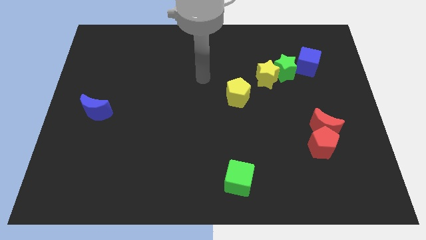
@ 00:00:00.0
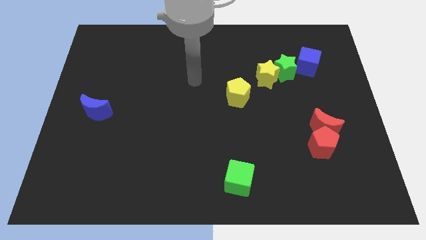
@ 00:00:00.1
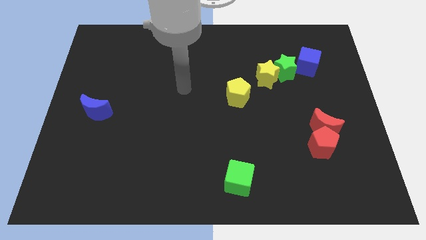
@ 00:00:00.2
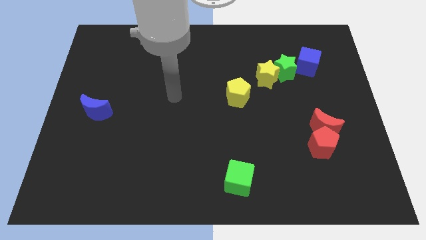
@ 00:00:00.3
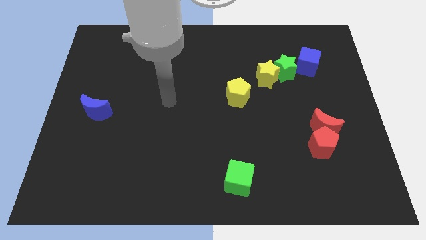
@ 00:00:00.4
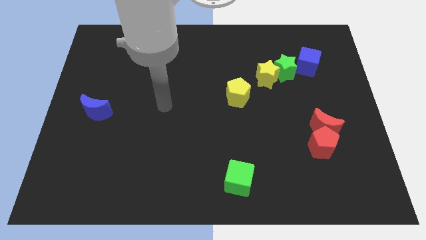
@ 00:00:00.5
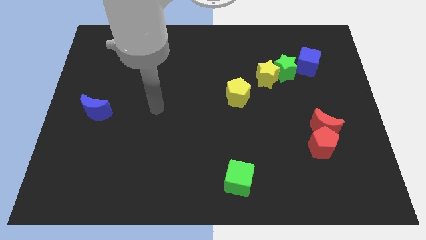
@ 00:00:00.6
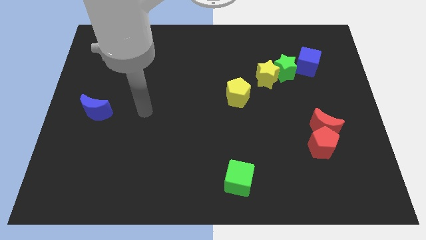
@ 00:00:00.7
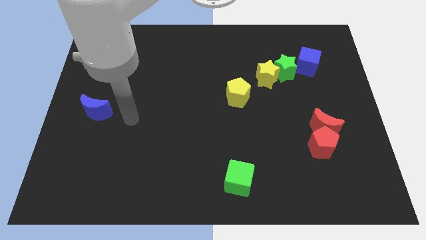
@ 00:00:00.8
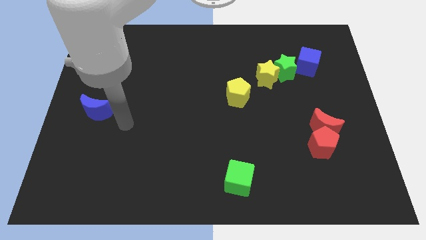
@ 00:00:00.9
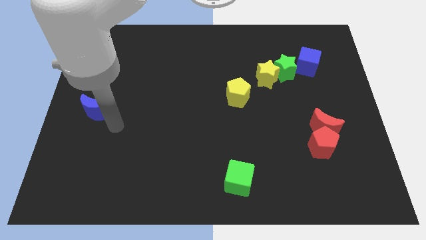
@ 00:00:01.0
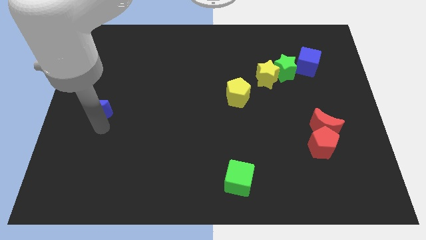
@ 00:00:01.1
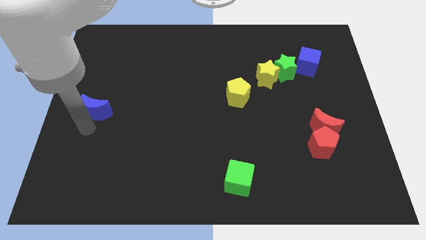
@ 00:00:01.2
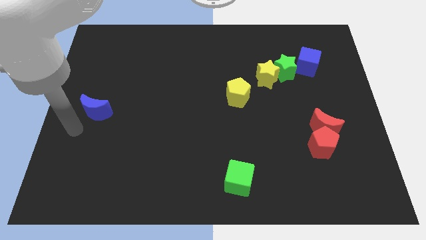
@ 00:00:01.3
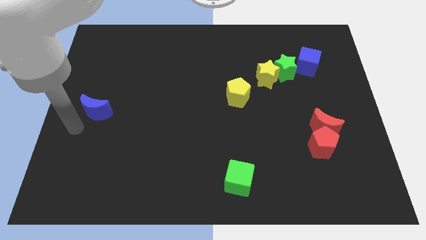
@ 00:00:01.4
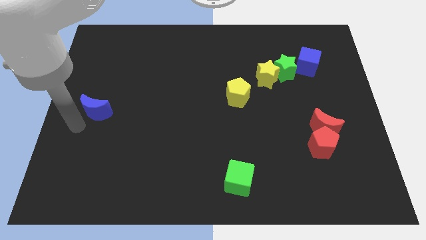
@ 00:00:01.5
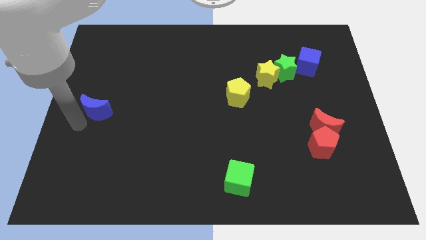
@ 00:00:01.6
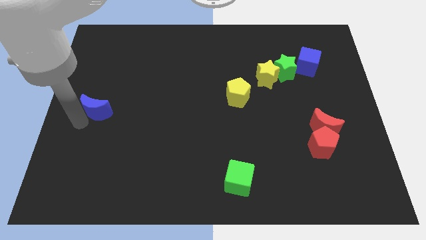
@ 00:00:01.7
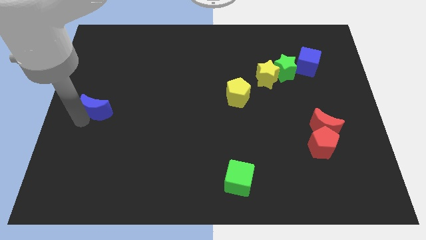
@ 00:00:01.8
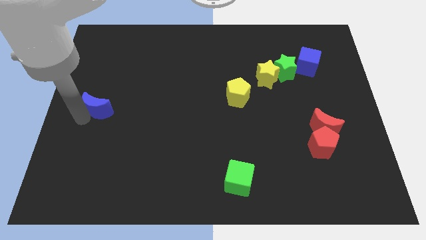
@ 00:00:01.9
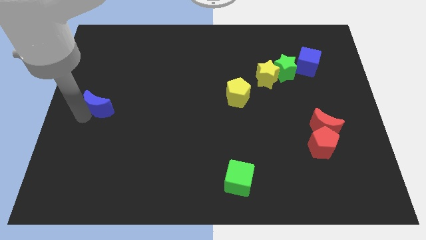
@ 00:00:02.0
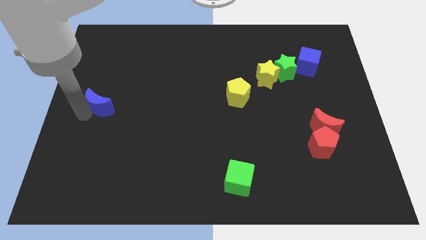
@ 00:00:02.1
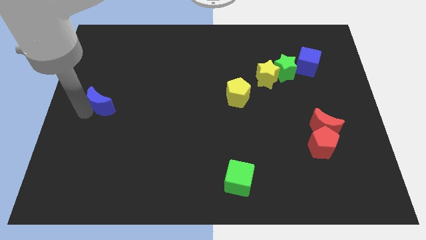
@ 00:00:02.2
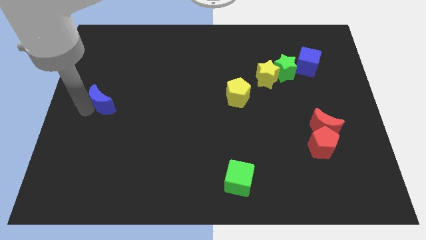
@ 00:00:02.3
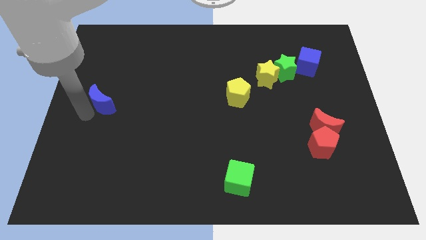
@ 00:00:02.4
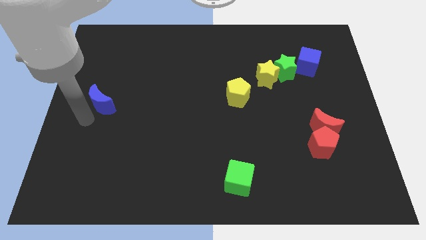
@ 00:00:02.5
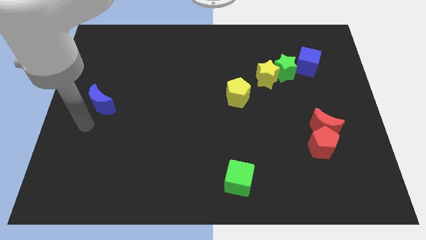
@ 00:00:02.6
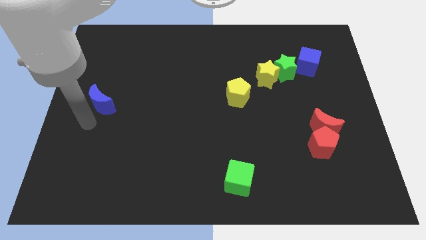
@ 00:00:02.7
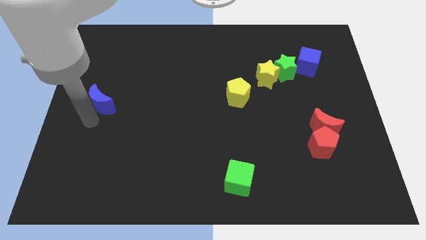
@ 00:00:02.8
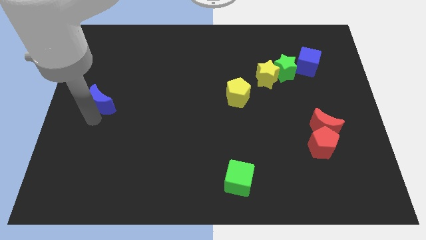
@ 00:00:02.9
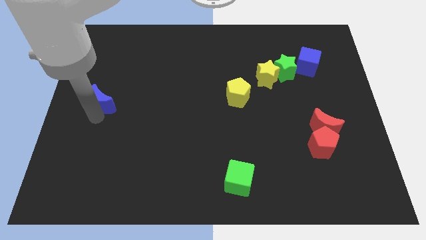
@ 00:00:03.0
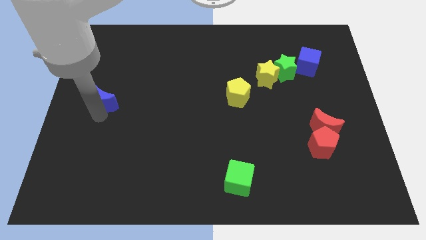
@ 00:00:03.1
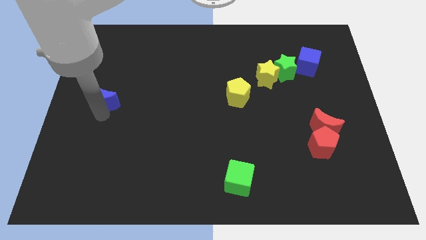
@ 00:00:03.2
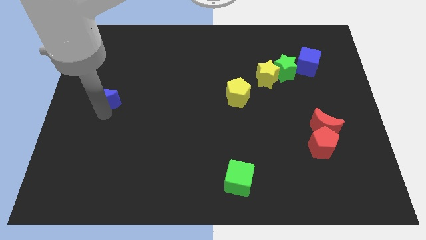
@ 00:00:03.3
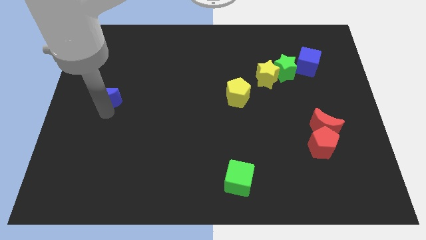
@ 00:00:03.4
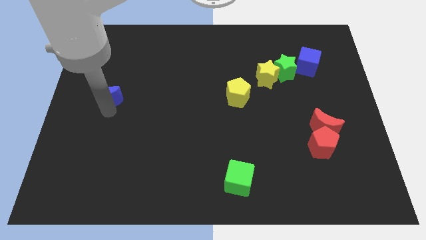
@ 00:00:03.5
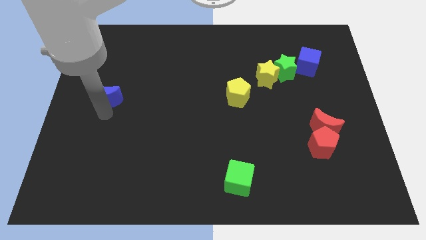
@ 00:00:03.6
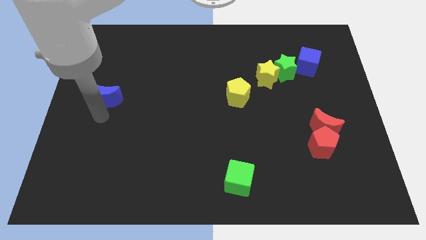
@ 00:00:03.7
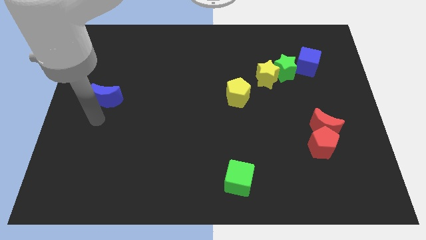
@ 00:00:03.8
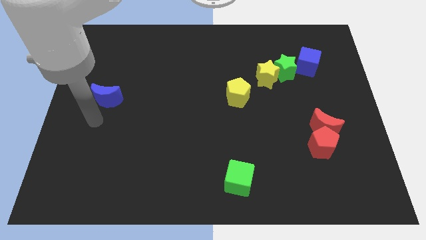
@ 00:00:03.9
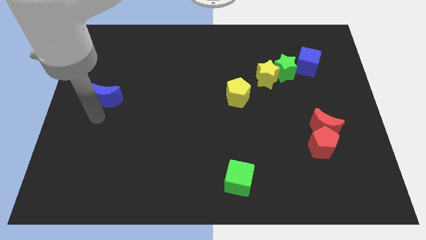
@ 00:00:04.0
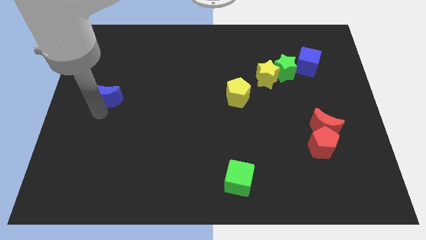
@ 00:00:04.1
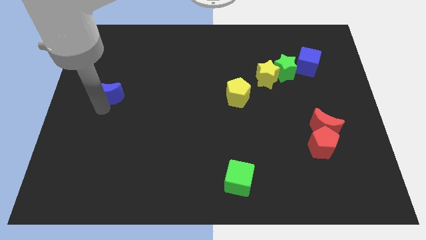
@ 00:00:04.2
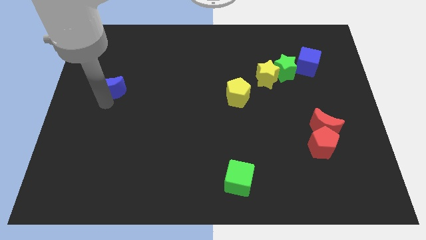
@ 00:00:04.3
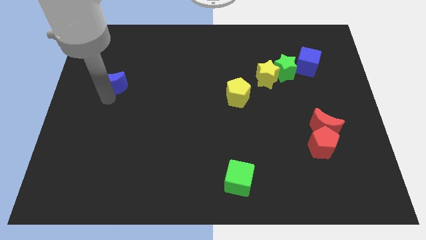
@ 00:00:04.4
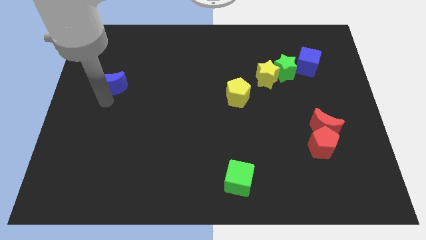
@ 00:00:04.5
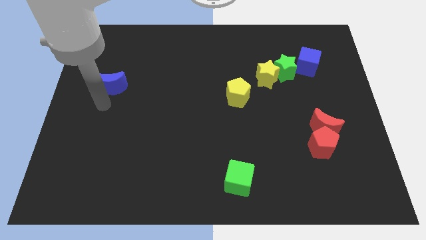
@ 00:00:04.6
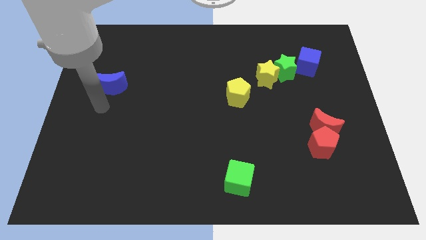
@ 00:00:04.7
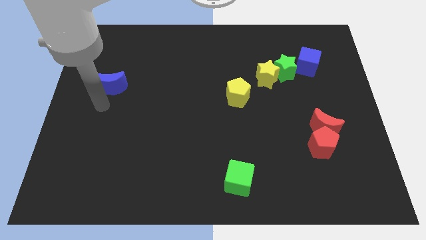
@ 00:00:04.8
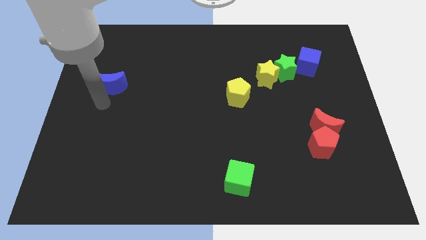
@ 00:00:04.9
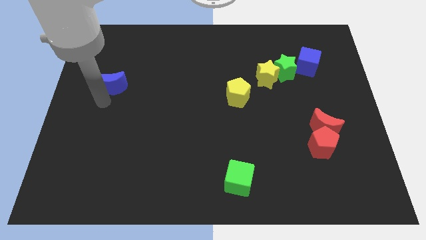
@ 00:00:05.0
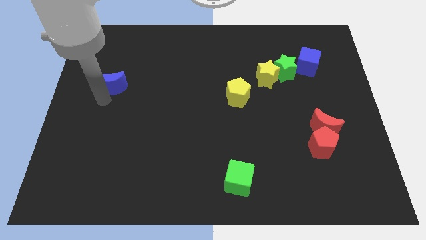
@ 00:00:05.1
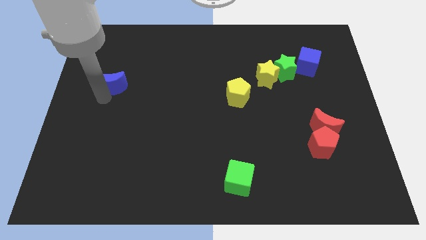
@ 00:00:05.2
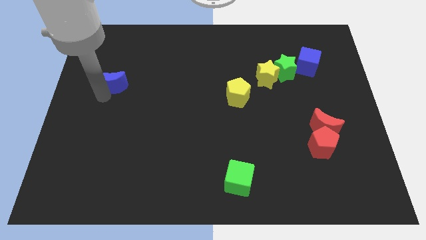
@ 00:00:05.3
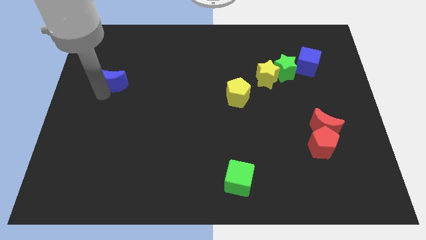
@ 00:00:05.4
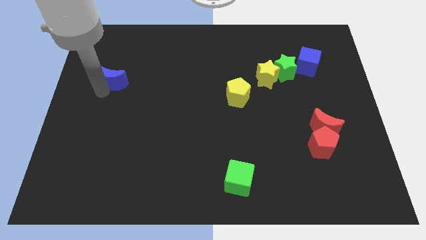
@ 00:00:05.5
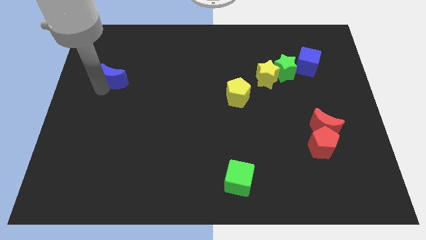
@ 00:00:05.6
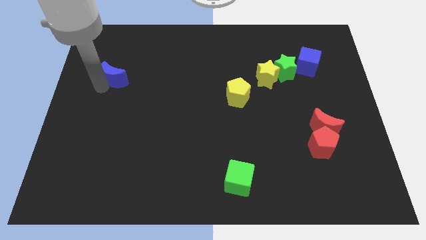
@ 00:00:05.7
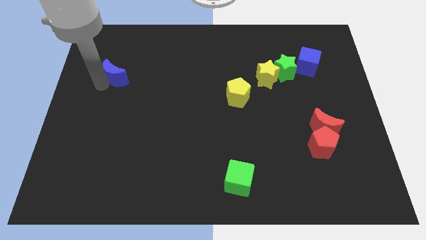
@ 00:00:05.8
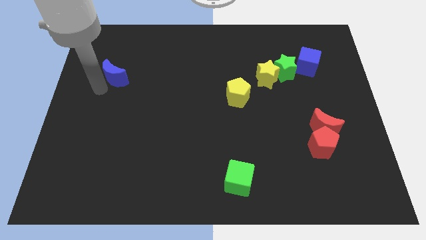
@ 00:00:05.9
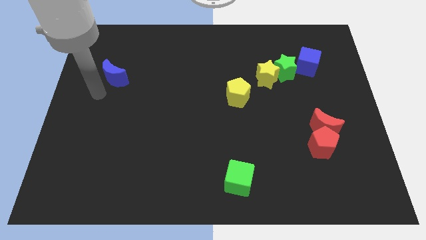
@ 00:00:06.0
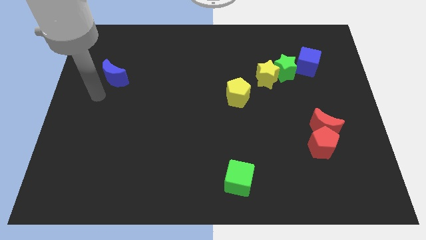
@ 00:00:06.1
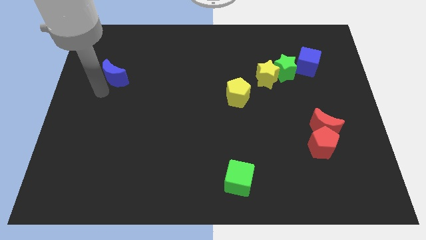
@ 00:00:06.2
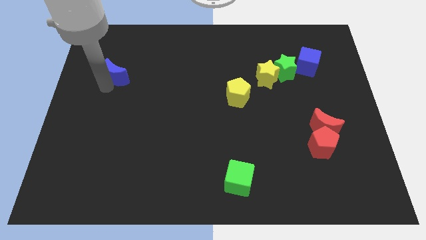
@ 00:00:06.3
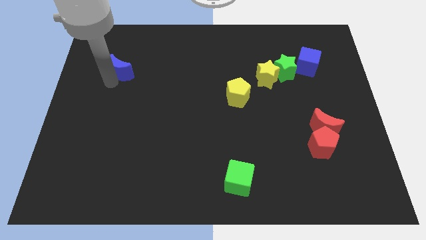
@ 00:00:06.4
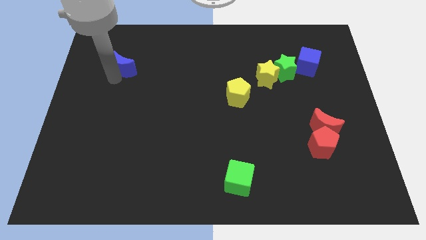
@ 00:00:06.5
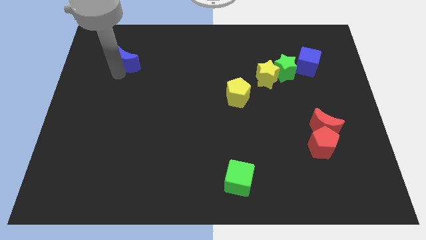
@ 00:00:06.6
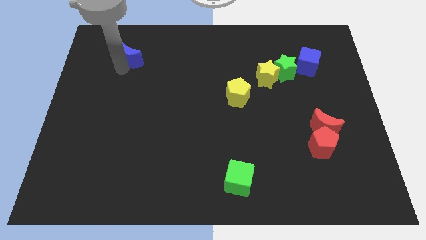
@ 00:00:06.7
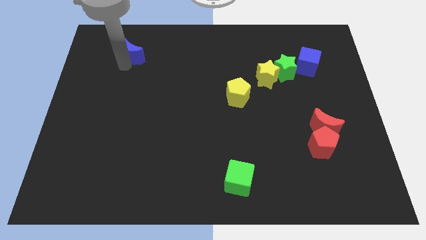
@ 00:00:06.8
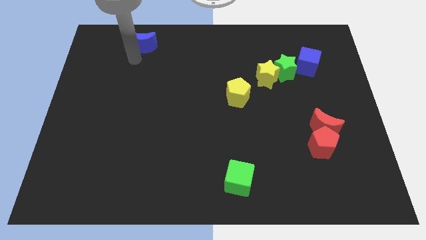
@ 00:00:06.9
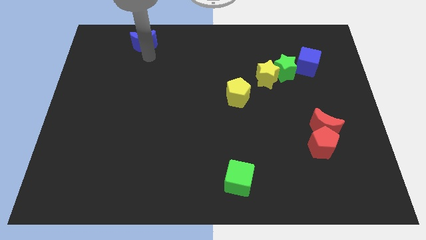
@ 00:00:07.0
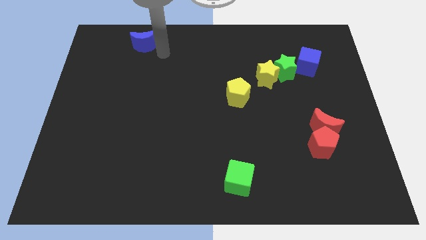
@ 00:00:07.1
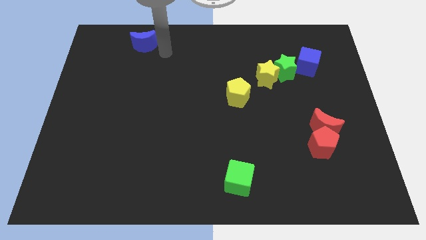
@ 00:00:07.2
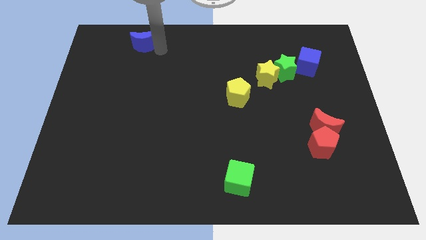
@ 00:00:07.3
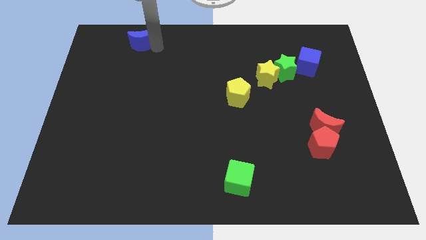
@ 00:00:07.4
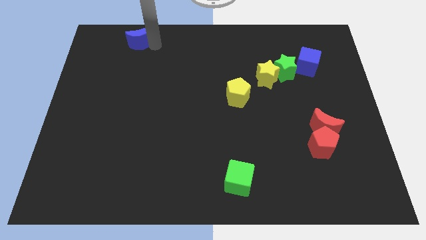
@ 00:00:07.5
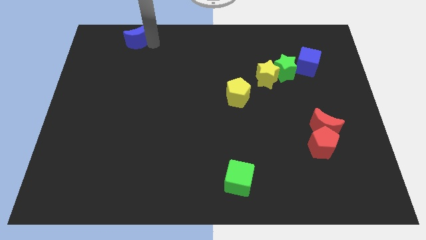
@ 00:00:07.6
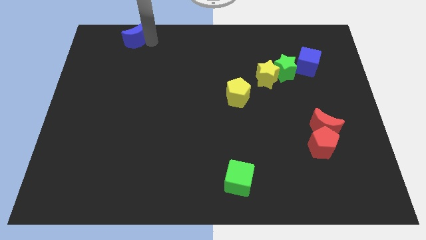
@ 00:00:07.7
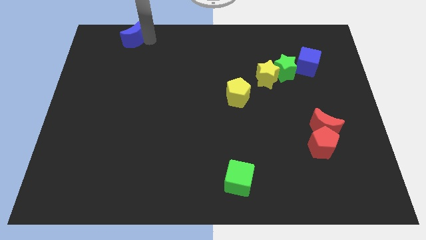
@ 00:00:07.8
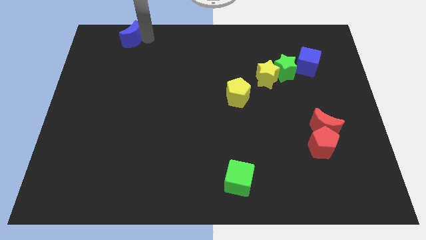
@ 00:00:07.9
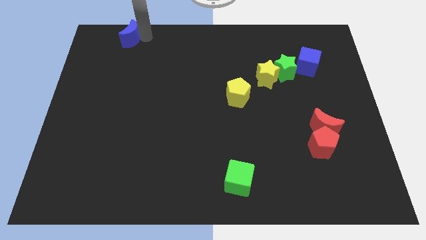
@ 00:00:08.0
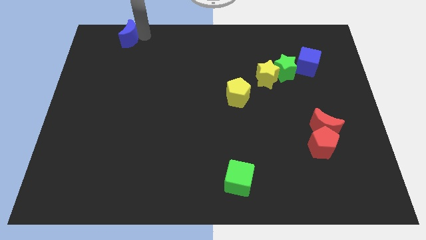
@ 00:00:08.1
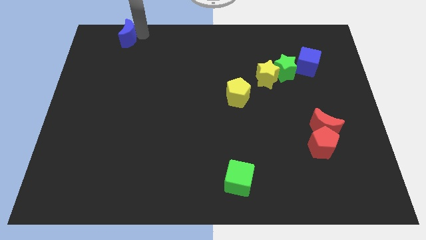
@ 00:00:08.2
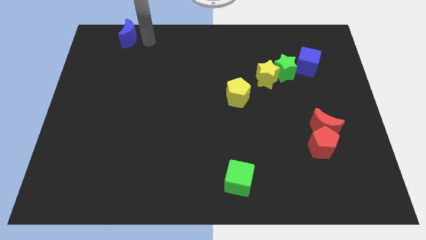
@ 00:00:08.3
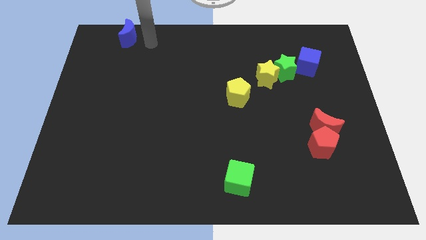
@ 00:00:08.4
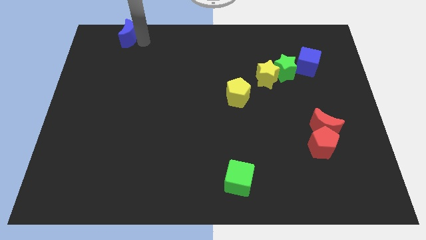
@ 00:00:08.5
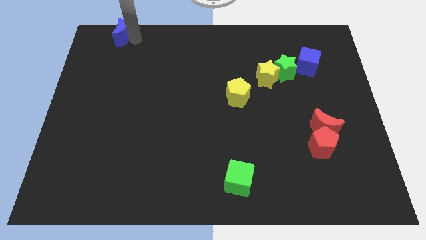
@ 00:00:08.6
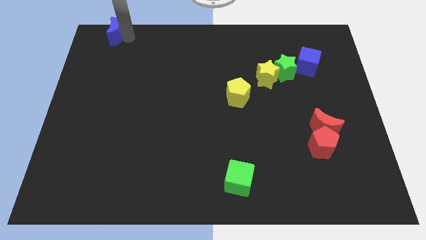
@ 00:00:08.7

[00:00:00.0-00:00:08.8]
move the blue moon to the top left corner
